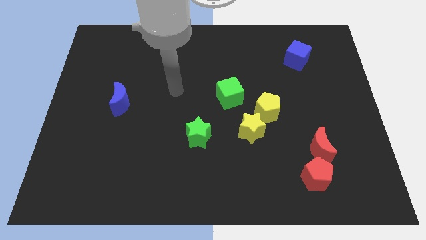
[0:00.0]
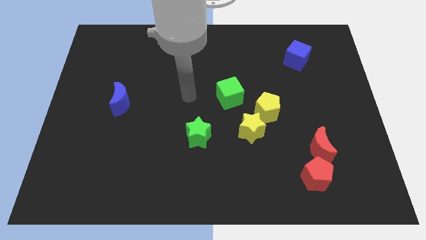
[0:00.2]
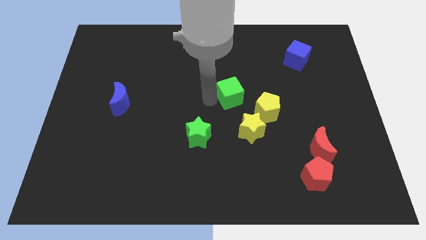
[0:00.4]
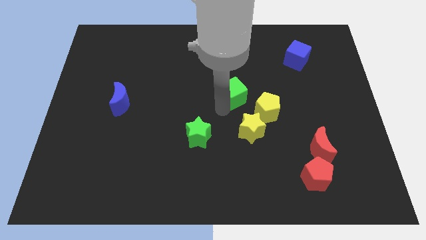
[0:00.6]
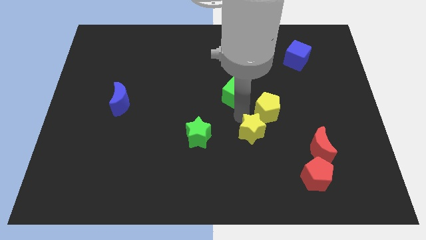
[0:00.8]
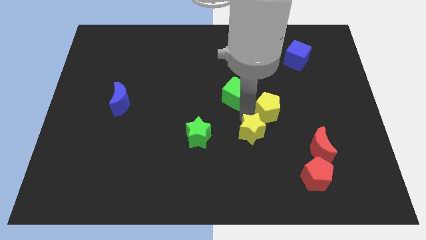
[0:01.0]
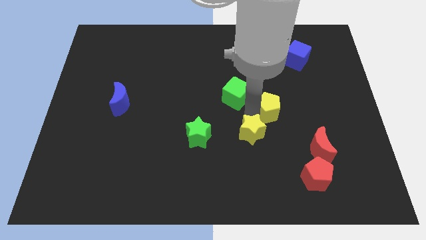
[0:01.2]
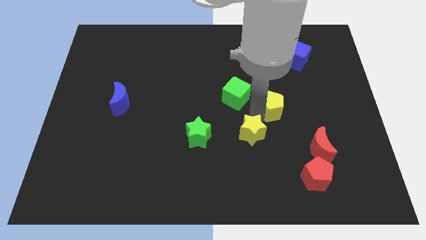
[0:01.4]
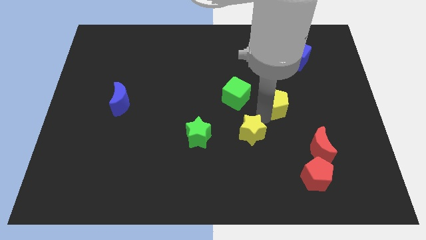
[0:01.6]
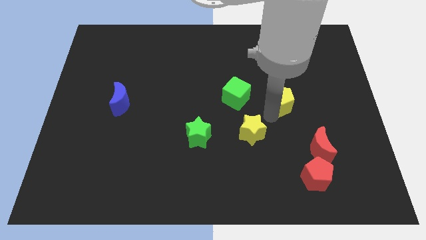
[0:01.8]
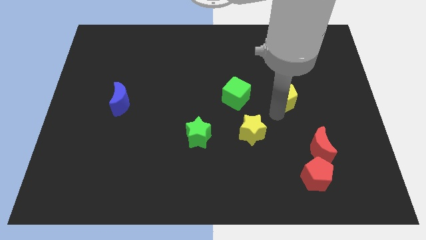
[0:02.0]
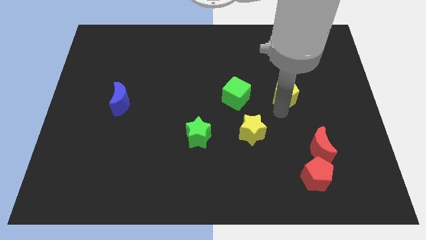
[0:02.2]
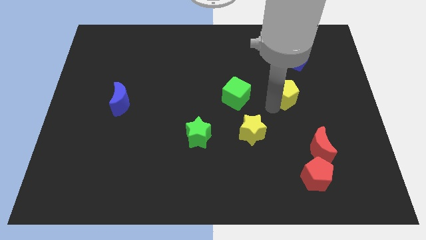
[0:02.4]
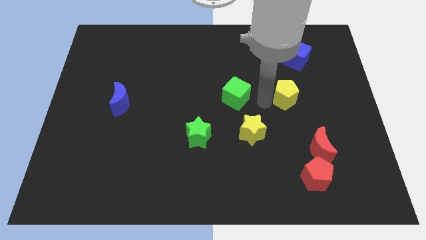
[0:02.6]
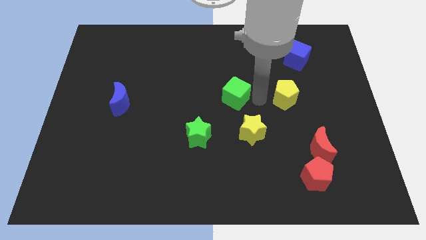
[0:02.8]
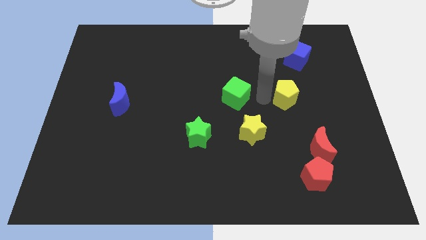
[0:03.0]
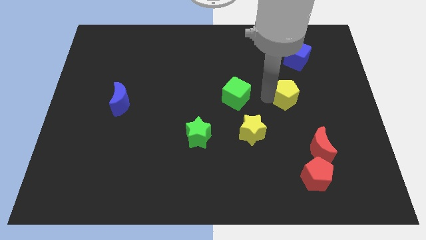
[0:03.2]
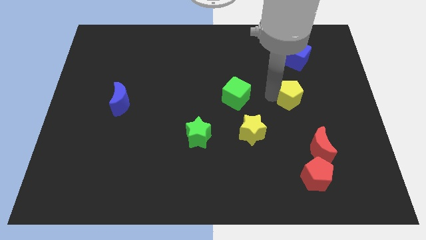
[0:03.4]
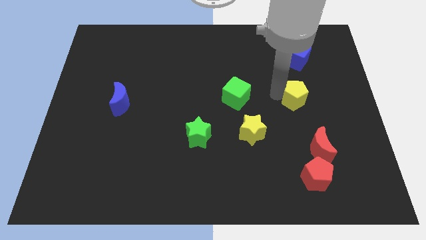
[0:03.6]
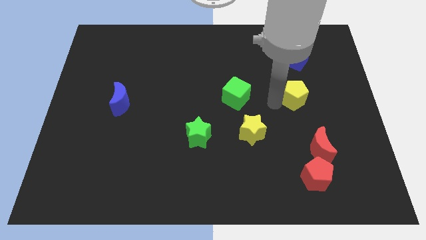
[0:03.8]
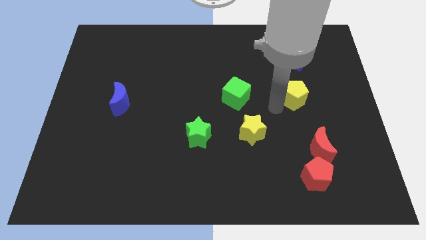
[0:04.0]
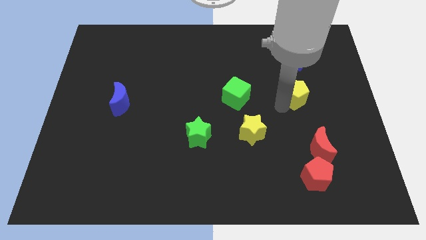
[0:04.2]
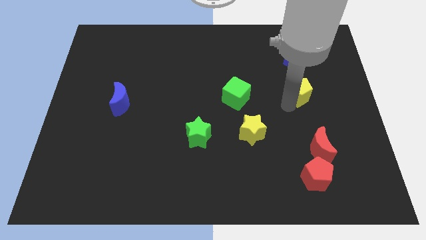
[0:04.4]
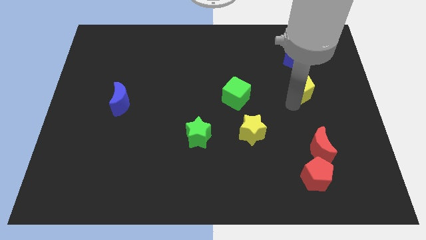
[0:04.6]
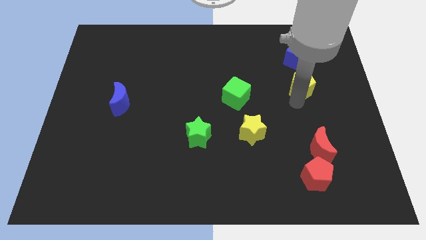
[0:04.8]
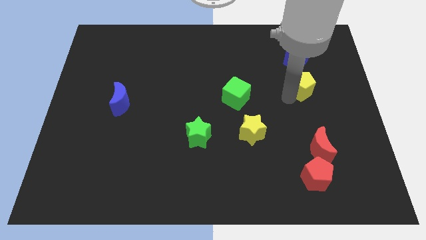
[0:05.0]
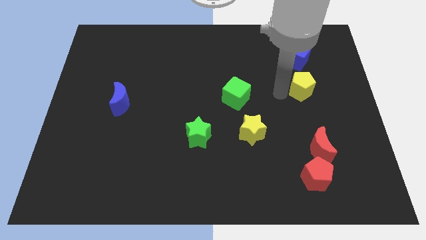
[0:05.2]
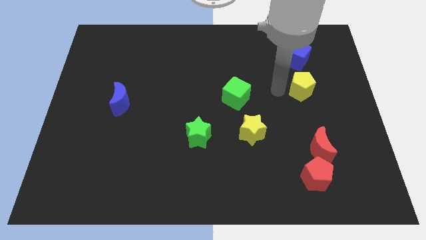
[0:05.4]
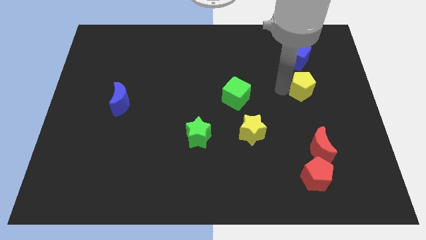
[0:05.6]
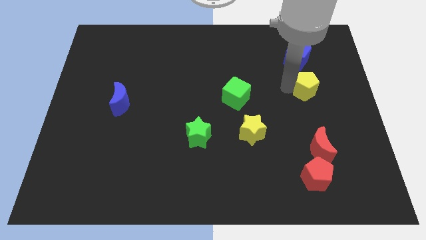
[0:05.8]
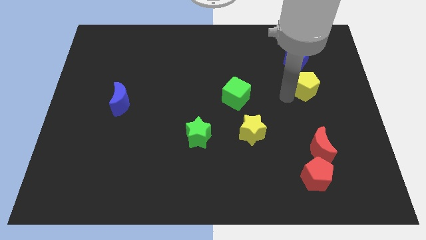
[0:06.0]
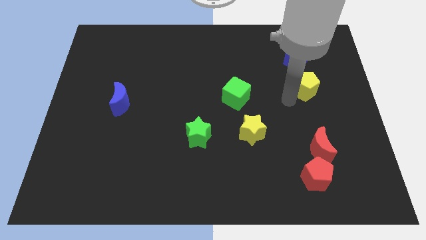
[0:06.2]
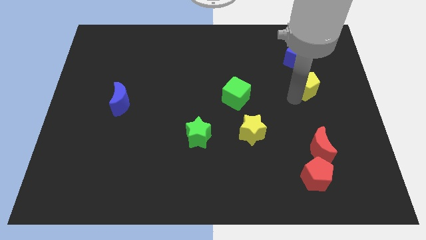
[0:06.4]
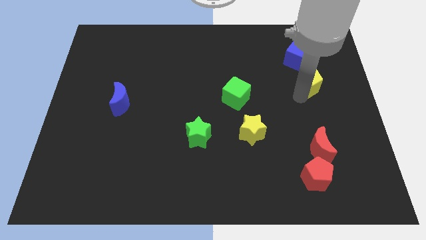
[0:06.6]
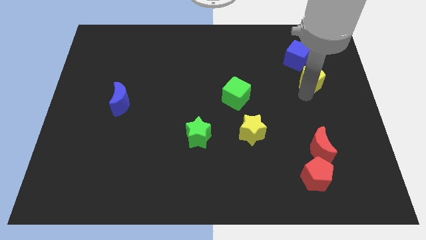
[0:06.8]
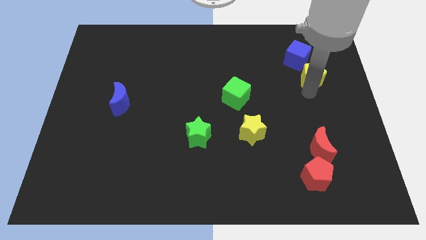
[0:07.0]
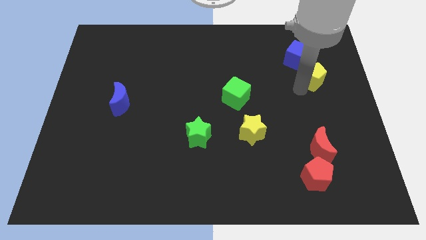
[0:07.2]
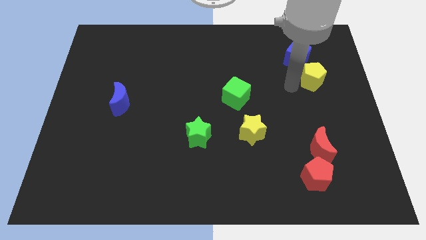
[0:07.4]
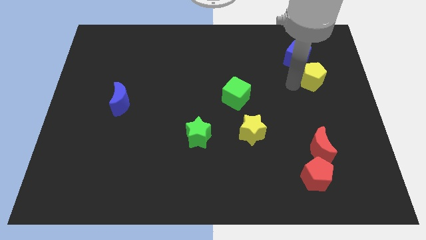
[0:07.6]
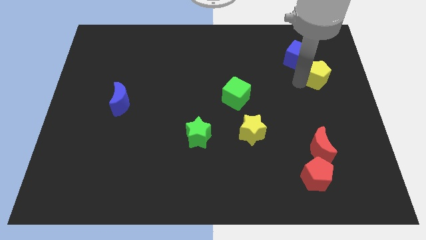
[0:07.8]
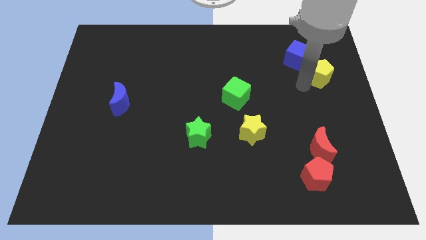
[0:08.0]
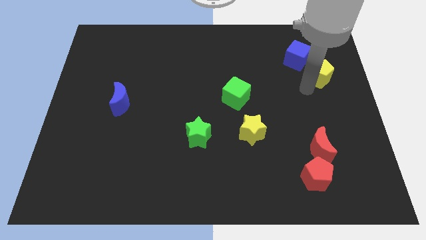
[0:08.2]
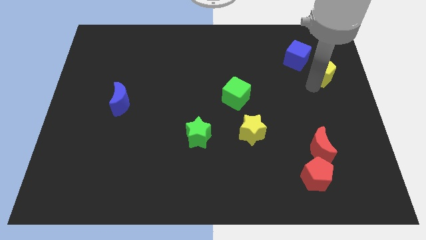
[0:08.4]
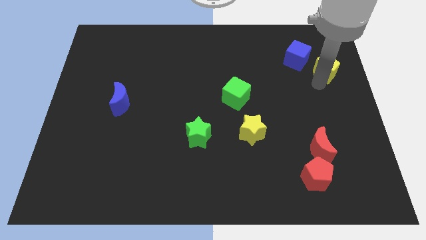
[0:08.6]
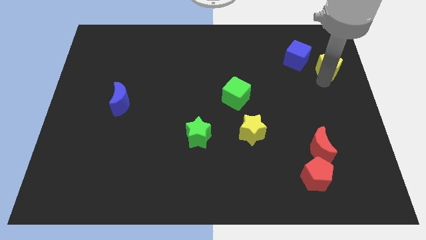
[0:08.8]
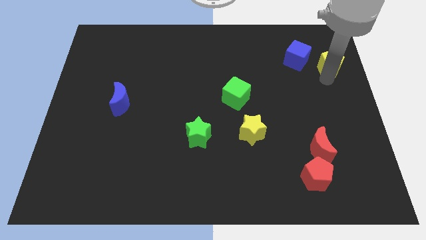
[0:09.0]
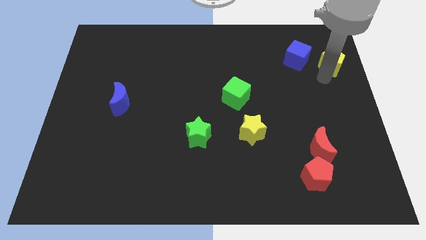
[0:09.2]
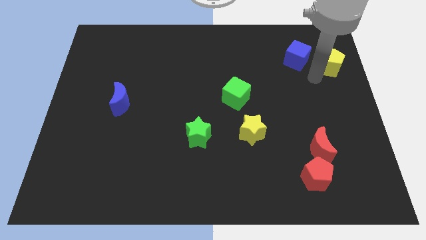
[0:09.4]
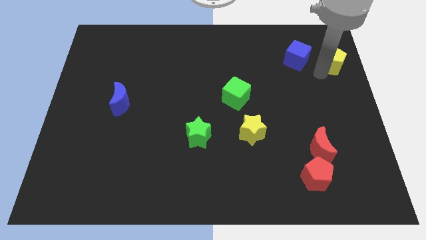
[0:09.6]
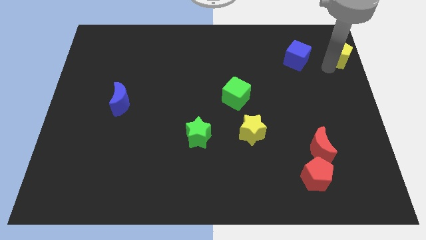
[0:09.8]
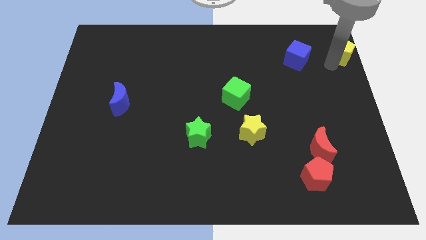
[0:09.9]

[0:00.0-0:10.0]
put the yellow pentagon to the upper right corner

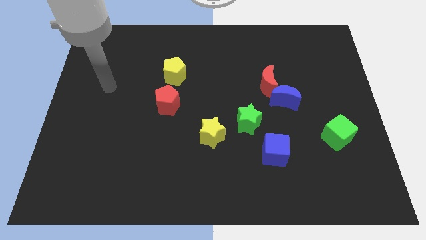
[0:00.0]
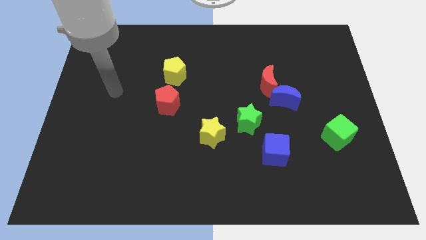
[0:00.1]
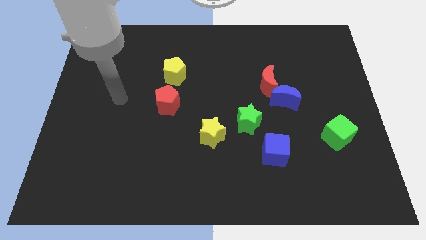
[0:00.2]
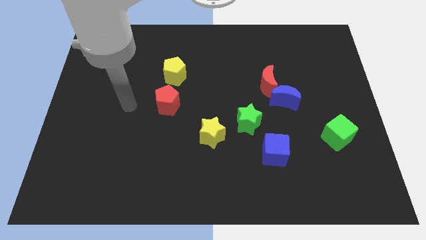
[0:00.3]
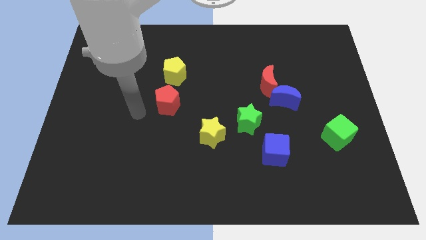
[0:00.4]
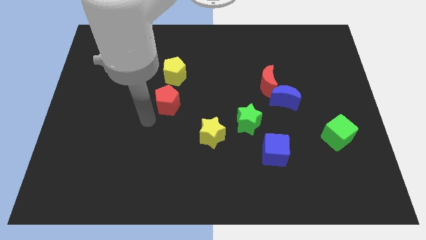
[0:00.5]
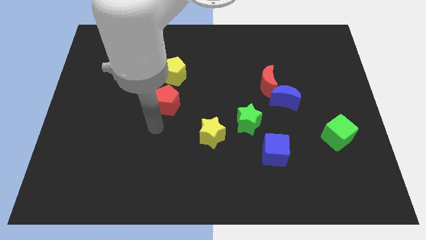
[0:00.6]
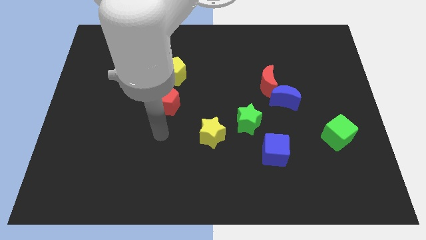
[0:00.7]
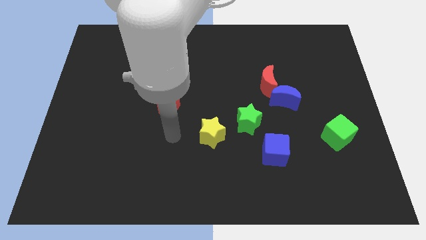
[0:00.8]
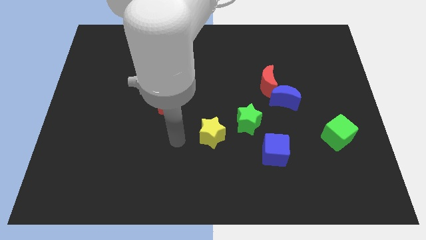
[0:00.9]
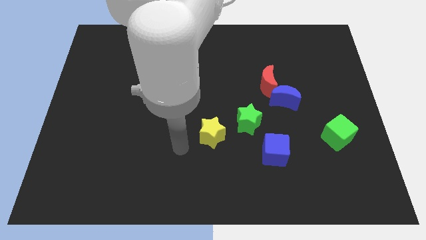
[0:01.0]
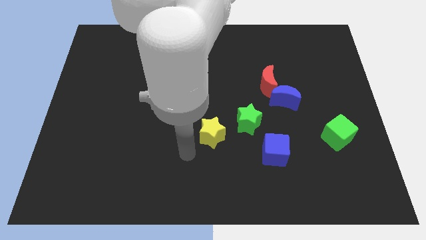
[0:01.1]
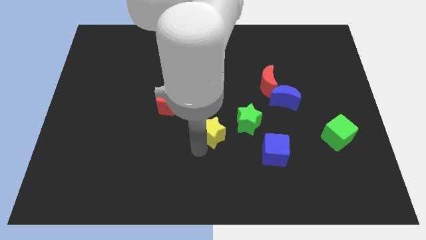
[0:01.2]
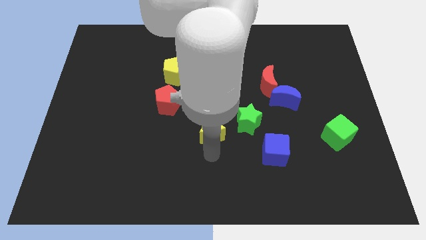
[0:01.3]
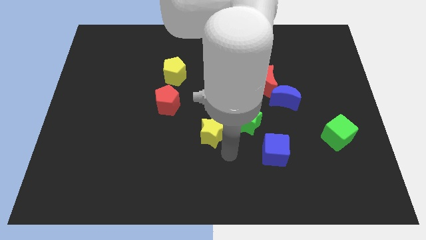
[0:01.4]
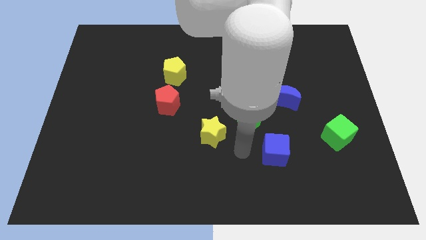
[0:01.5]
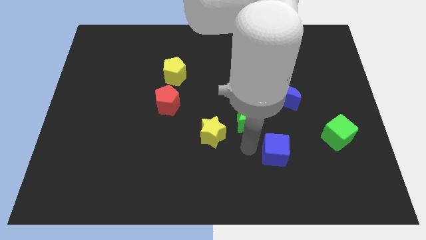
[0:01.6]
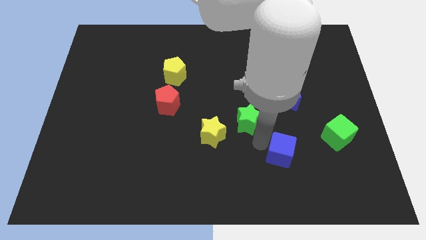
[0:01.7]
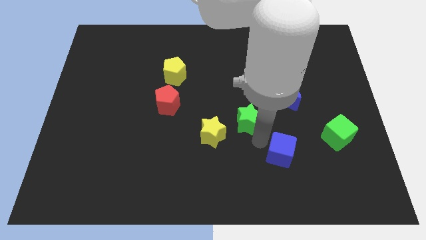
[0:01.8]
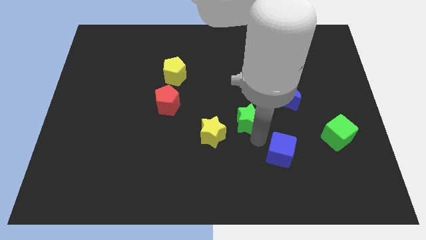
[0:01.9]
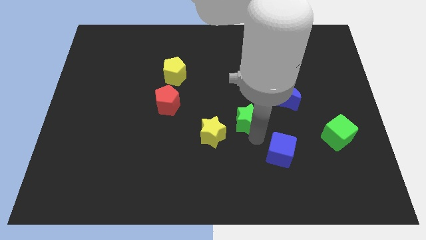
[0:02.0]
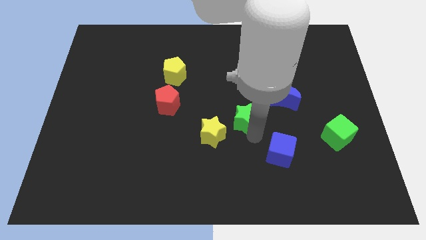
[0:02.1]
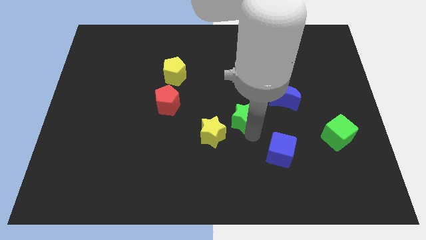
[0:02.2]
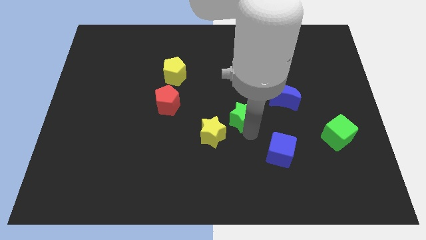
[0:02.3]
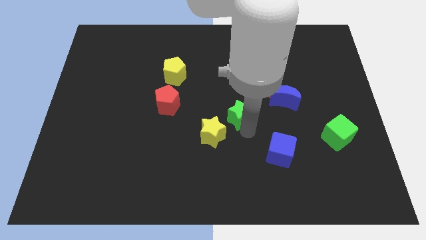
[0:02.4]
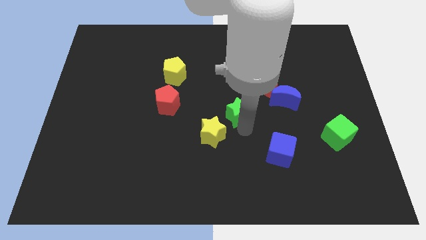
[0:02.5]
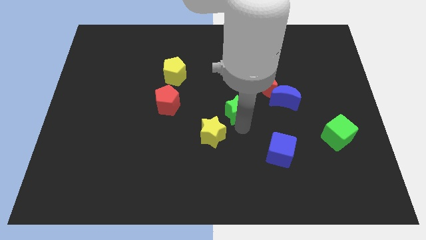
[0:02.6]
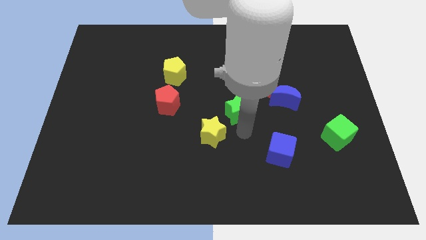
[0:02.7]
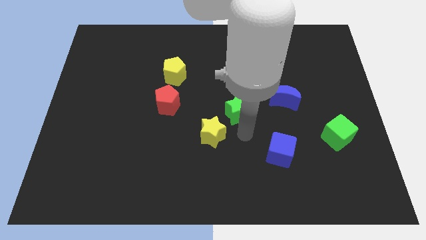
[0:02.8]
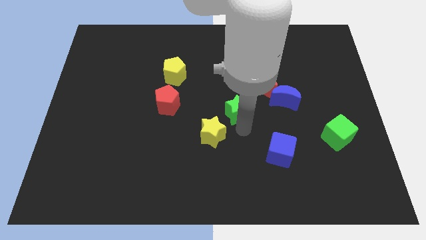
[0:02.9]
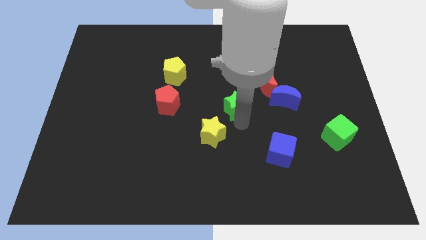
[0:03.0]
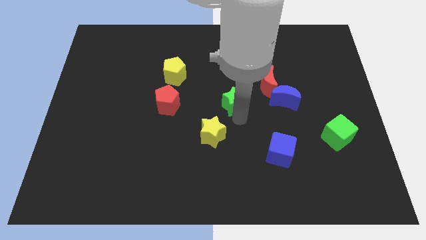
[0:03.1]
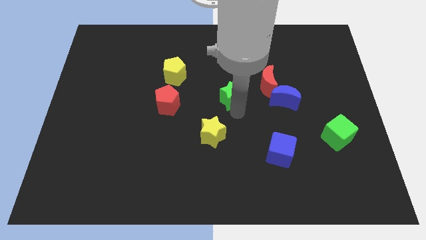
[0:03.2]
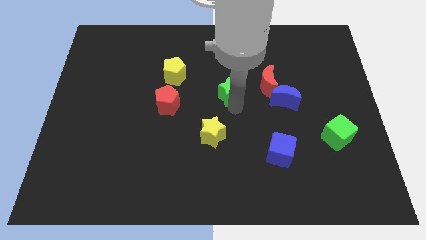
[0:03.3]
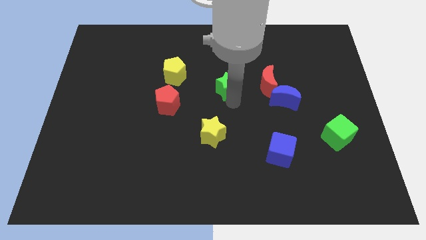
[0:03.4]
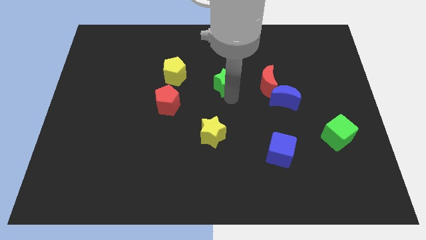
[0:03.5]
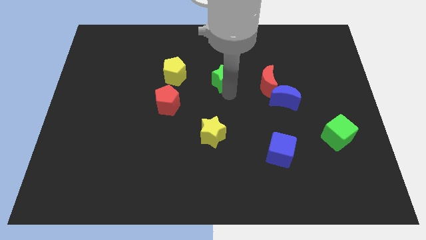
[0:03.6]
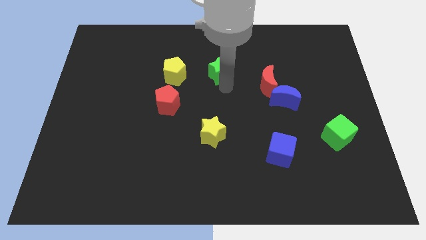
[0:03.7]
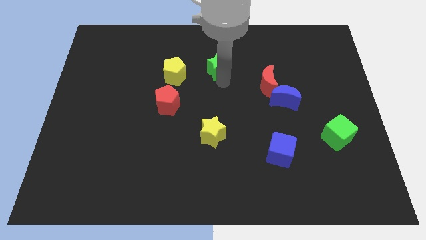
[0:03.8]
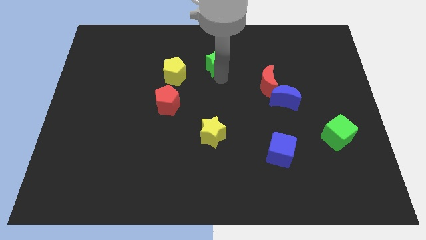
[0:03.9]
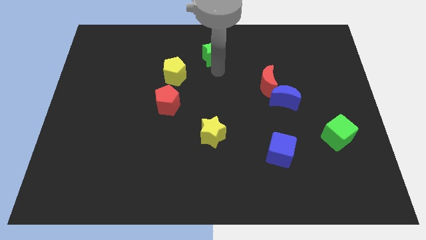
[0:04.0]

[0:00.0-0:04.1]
move the green star to the towards your base
